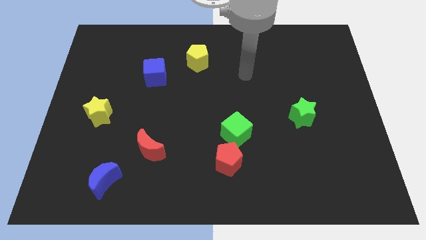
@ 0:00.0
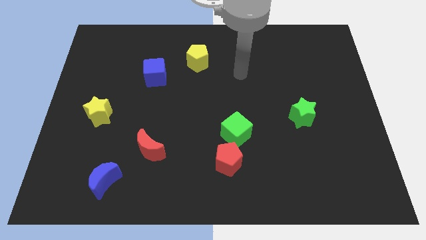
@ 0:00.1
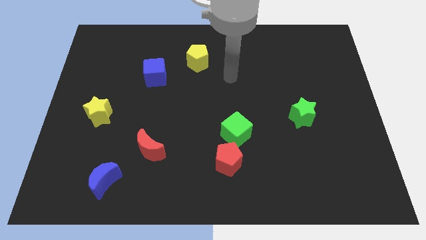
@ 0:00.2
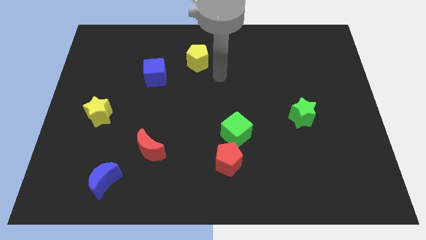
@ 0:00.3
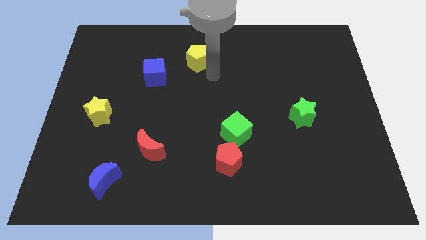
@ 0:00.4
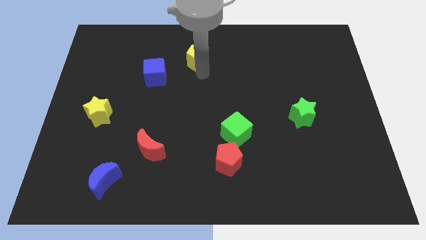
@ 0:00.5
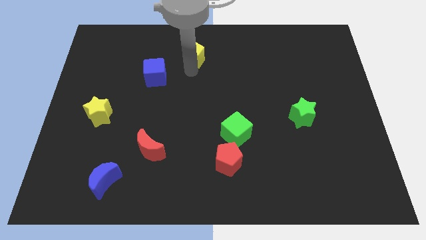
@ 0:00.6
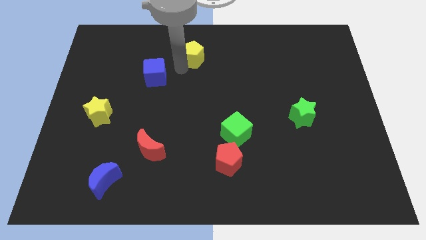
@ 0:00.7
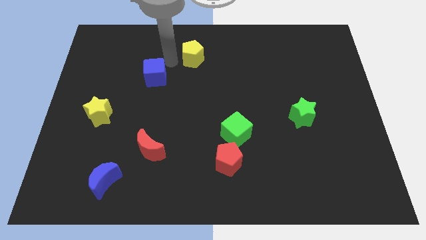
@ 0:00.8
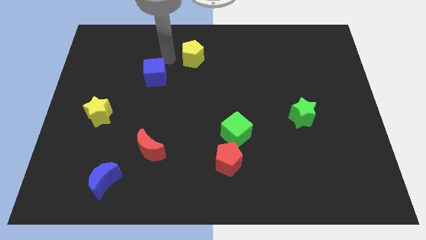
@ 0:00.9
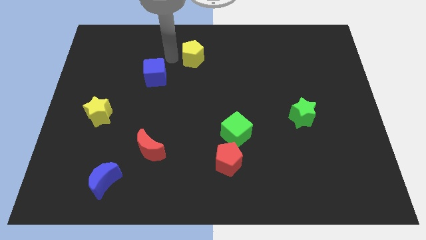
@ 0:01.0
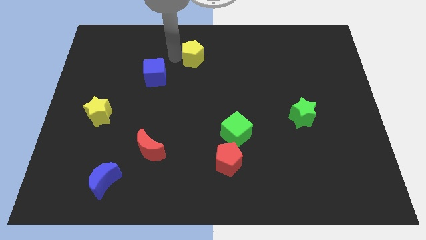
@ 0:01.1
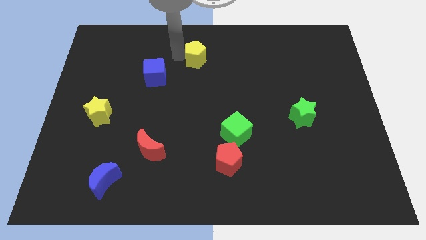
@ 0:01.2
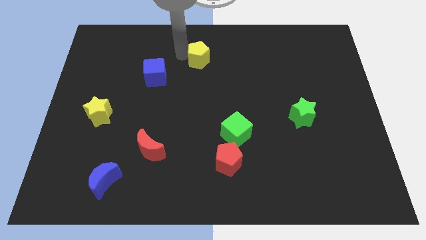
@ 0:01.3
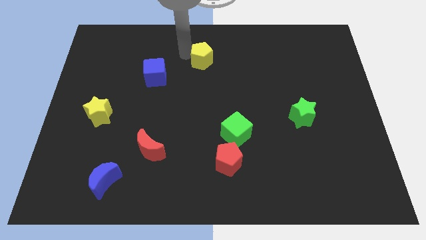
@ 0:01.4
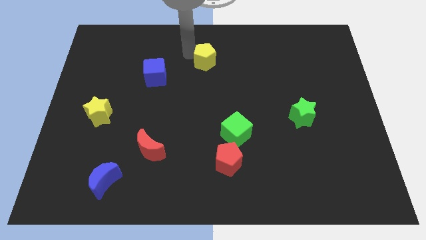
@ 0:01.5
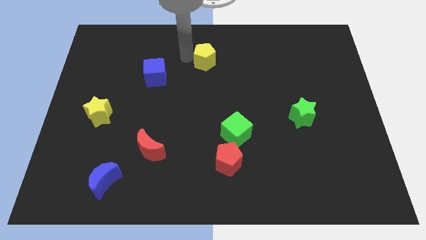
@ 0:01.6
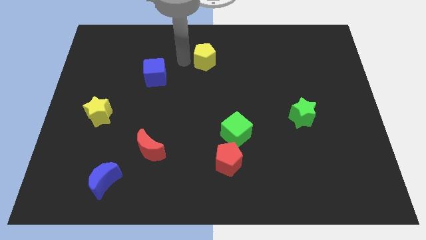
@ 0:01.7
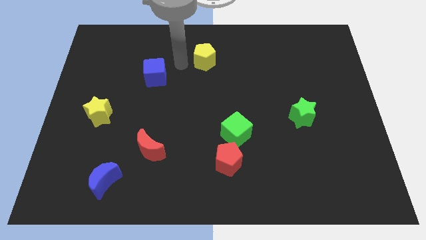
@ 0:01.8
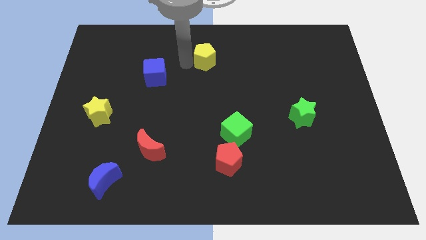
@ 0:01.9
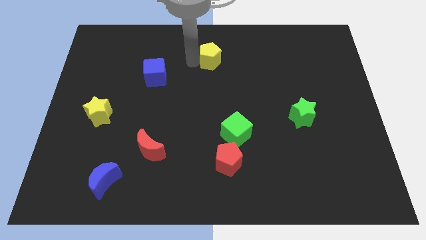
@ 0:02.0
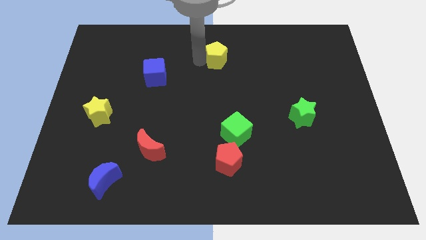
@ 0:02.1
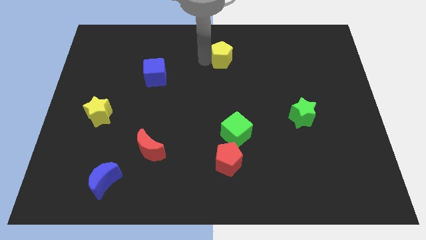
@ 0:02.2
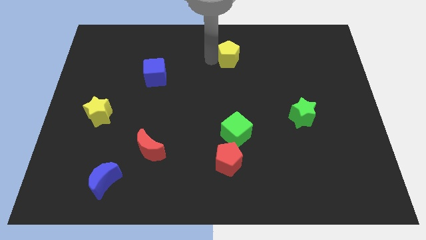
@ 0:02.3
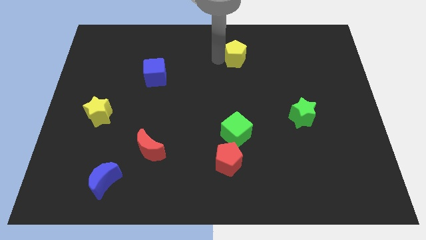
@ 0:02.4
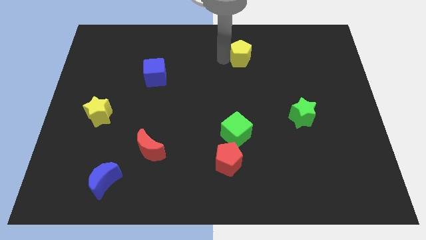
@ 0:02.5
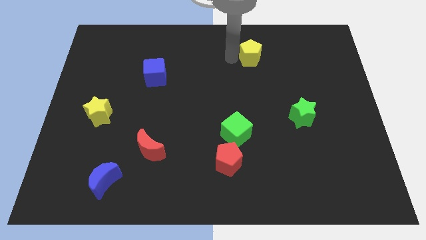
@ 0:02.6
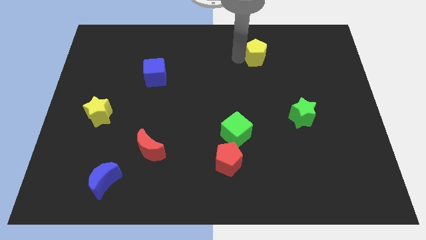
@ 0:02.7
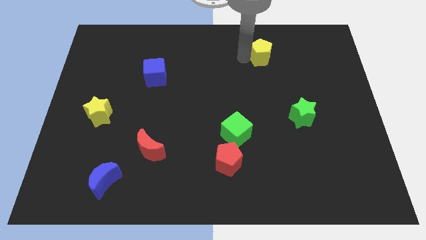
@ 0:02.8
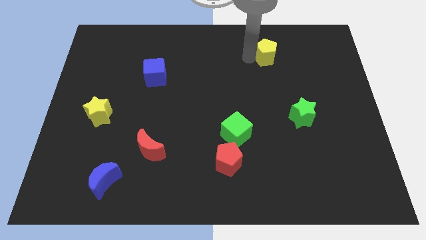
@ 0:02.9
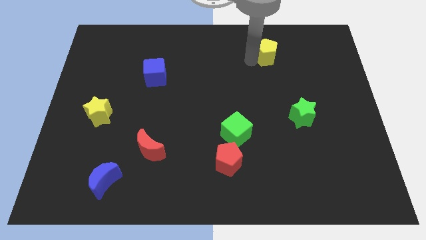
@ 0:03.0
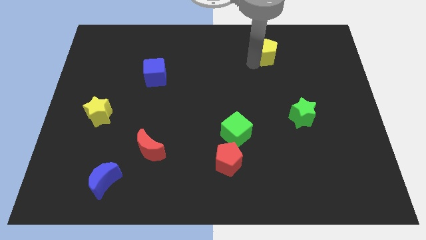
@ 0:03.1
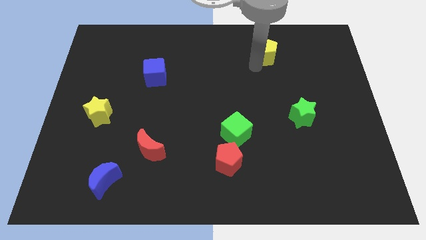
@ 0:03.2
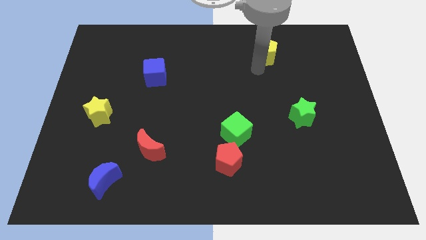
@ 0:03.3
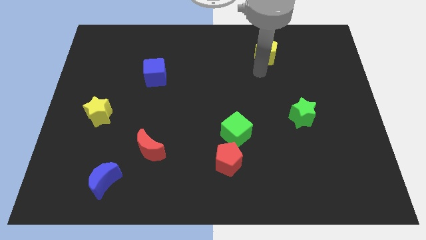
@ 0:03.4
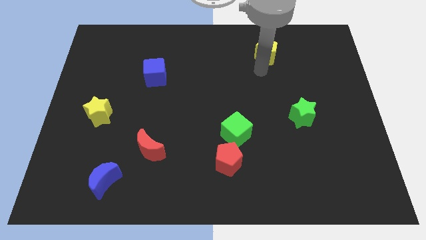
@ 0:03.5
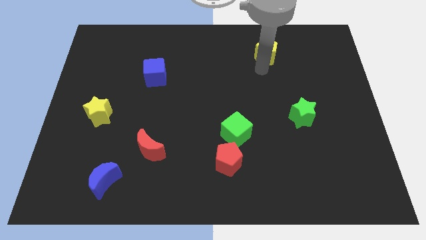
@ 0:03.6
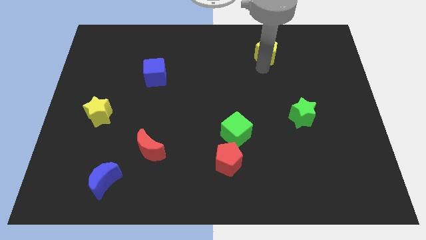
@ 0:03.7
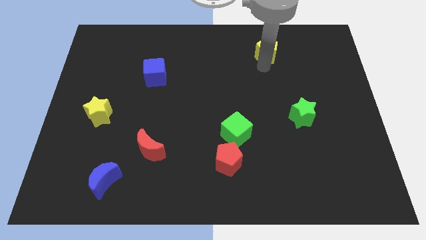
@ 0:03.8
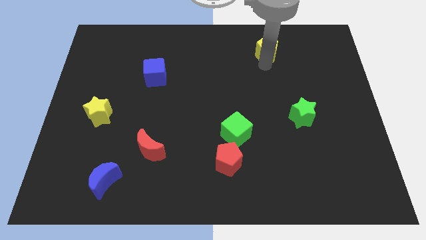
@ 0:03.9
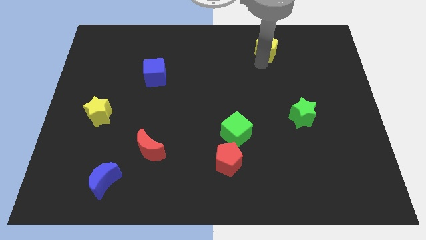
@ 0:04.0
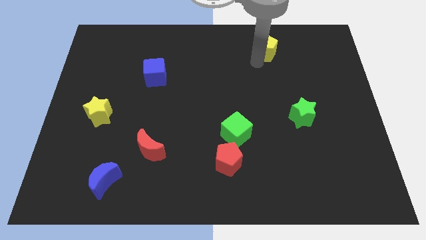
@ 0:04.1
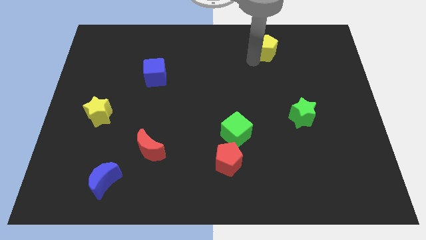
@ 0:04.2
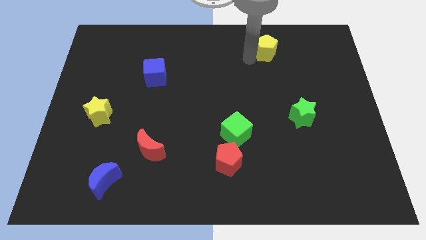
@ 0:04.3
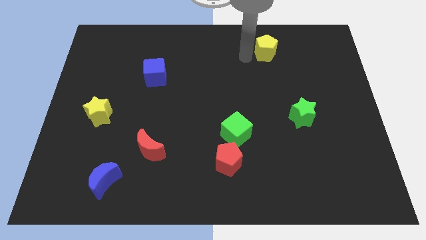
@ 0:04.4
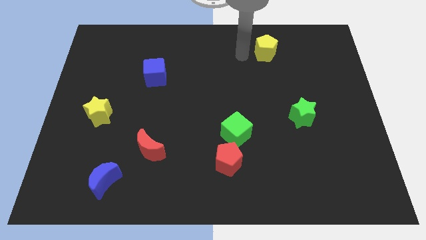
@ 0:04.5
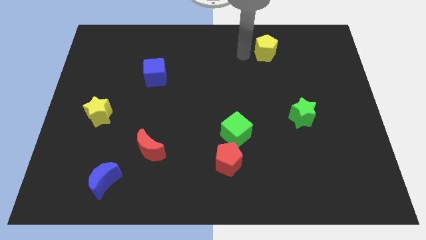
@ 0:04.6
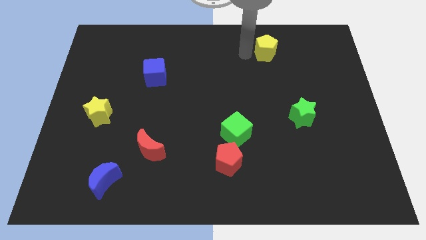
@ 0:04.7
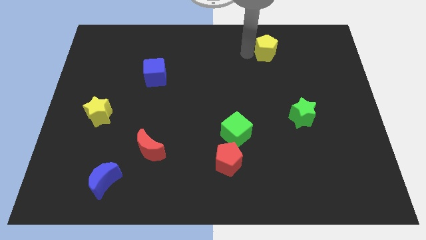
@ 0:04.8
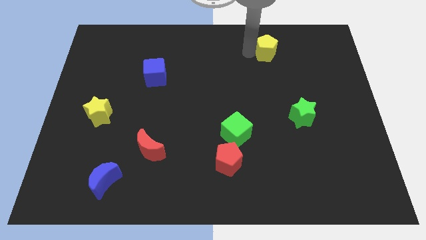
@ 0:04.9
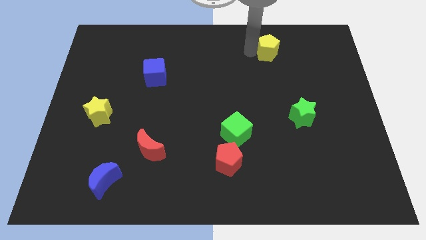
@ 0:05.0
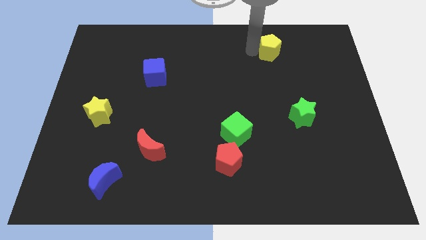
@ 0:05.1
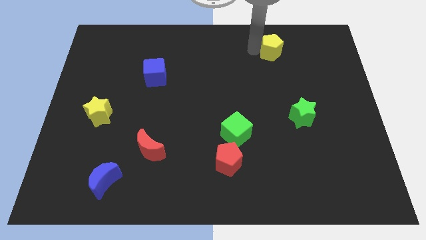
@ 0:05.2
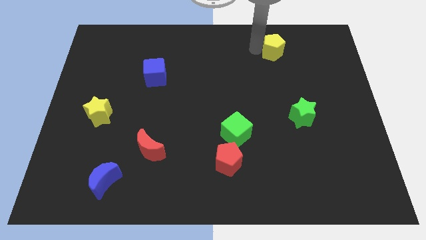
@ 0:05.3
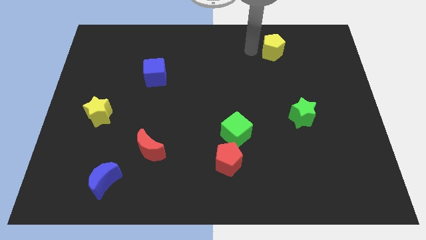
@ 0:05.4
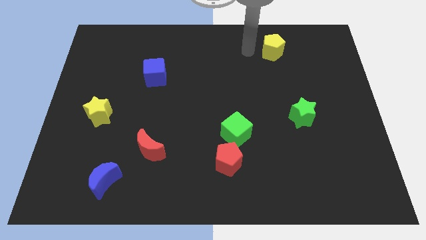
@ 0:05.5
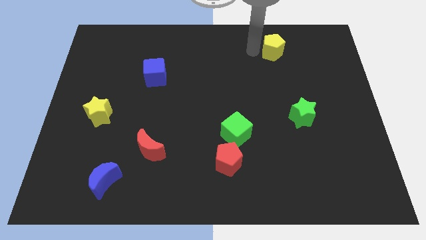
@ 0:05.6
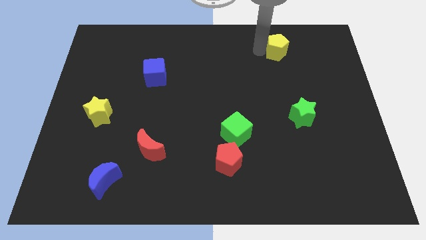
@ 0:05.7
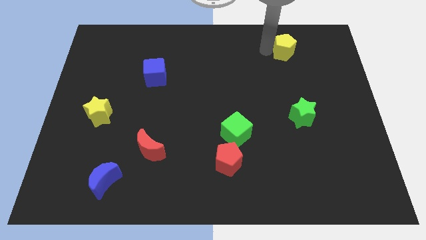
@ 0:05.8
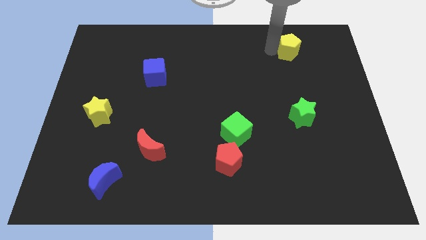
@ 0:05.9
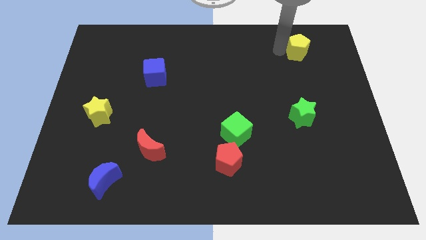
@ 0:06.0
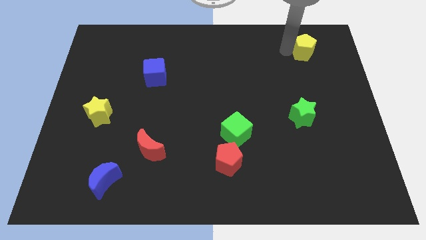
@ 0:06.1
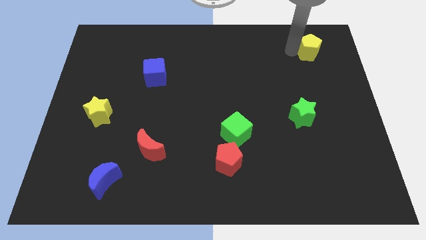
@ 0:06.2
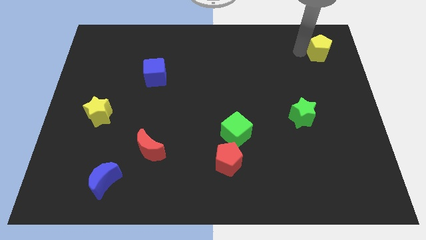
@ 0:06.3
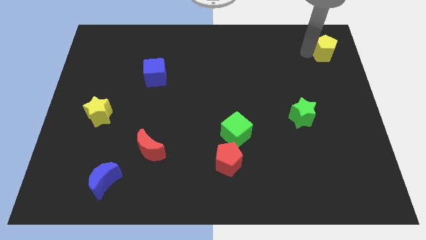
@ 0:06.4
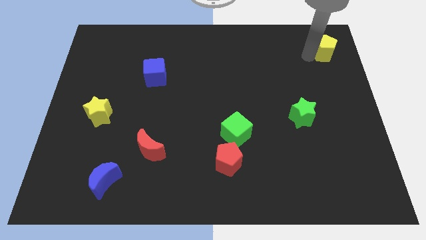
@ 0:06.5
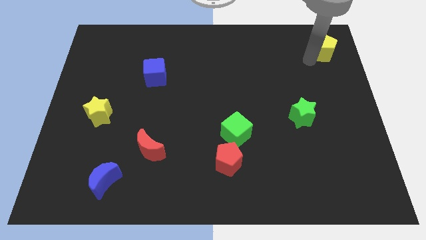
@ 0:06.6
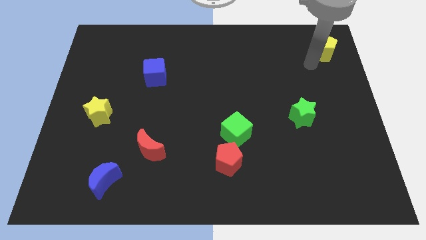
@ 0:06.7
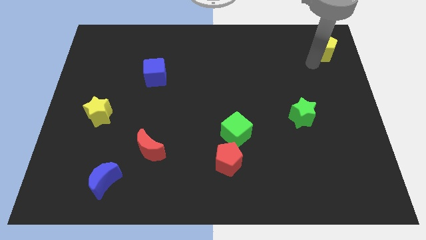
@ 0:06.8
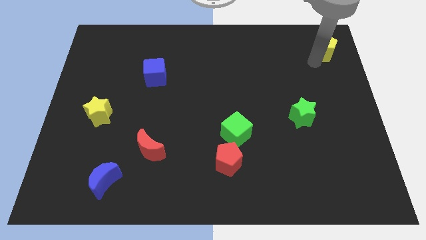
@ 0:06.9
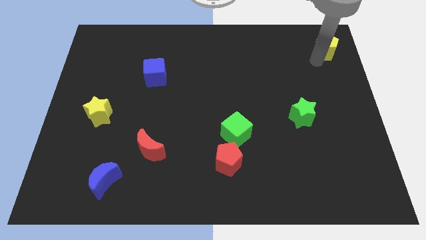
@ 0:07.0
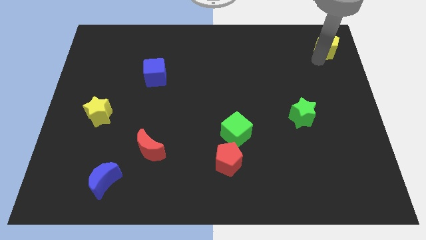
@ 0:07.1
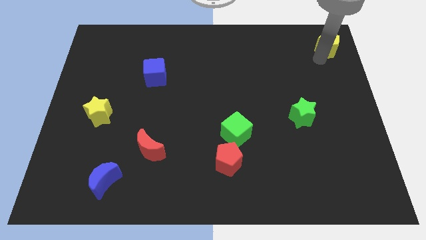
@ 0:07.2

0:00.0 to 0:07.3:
push the yellow pentagon to the top right
